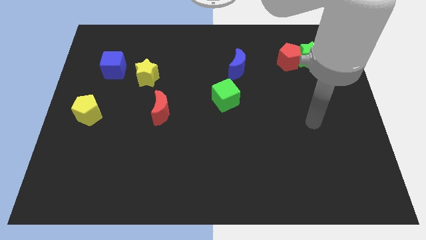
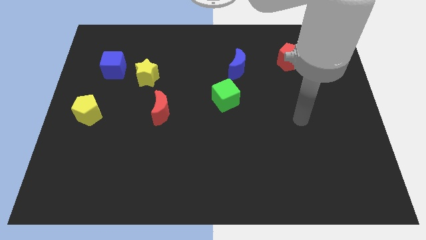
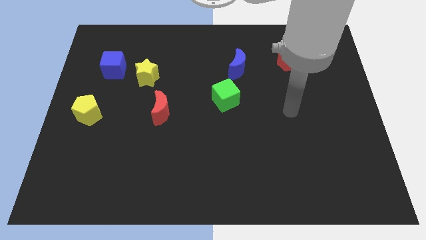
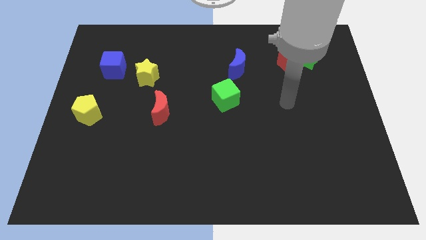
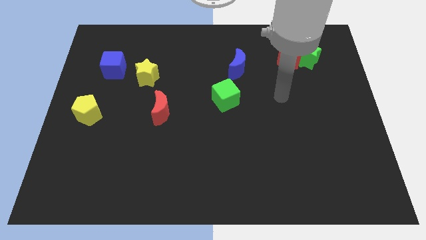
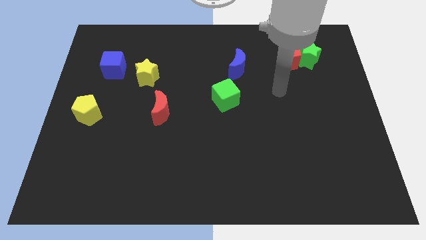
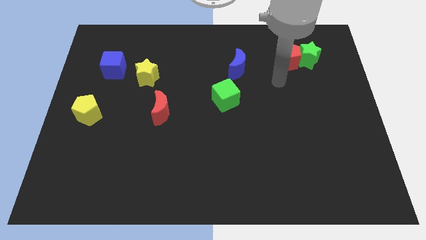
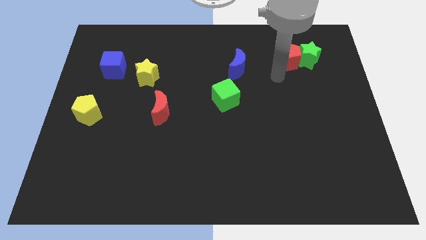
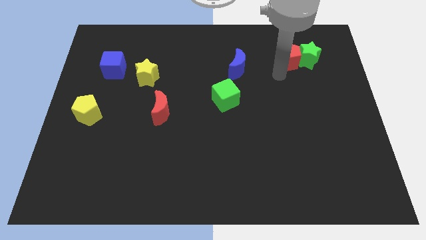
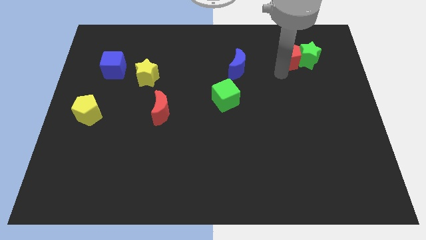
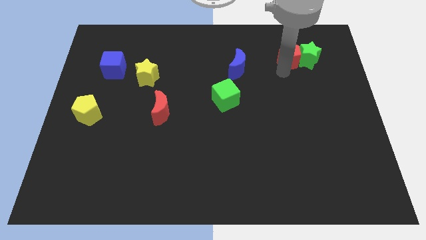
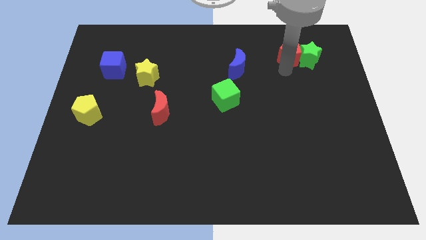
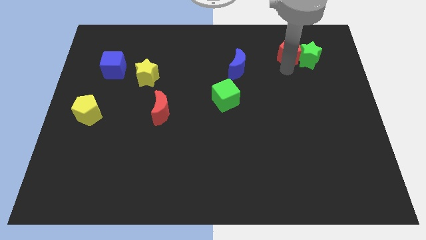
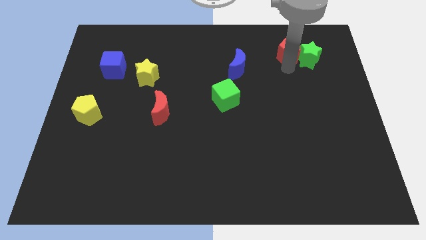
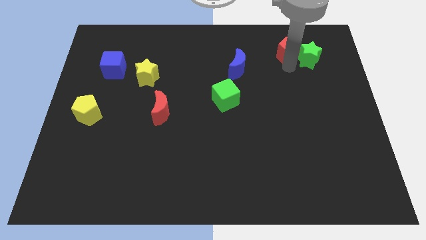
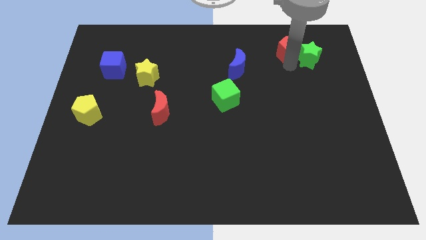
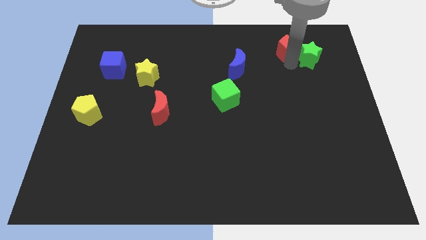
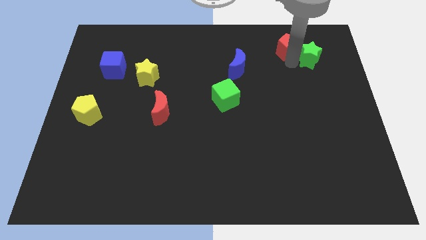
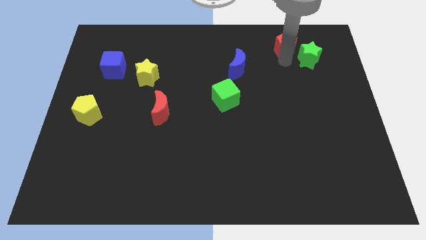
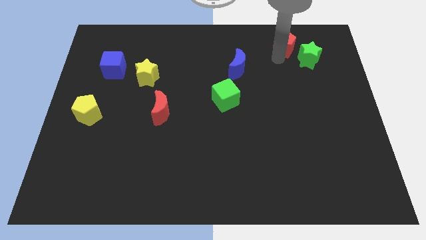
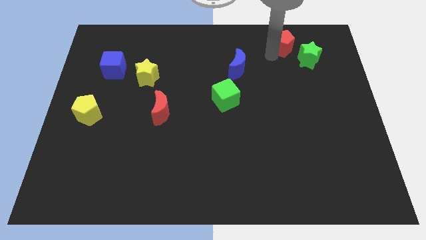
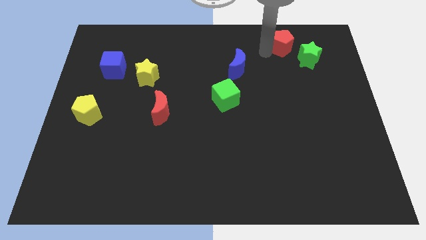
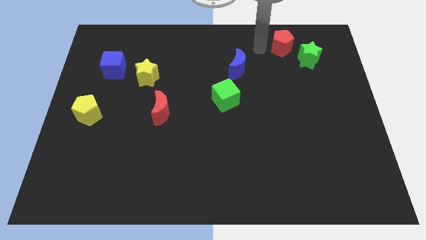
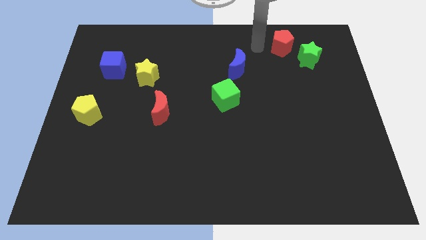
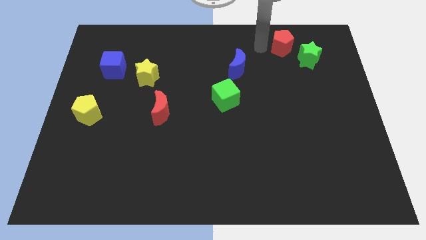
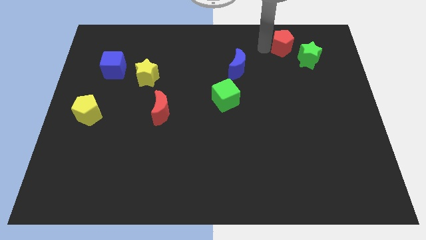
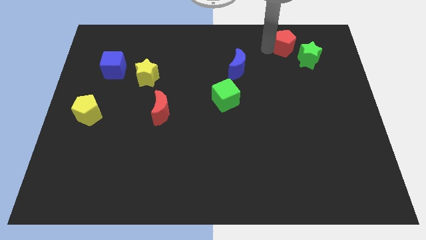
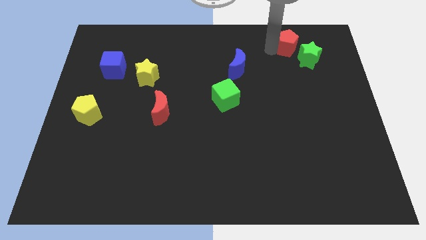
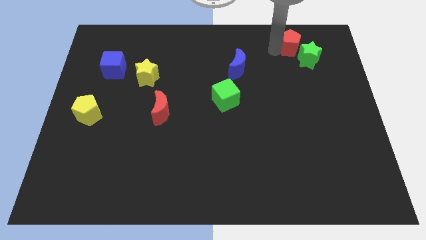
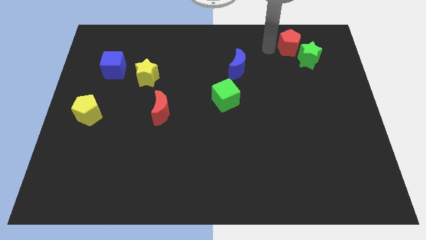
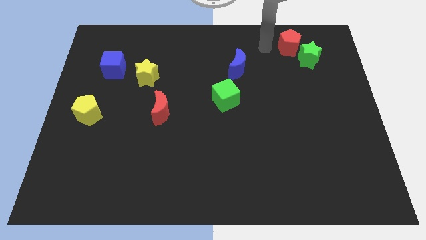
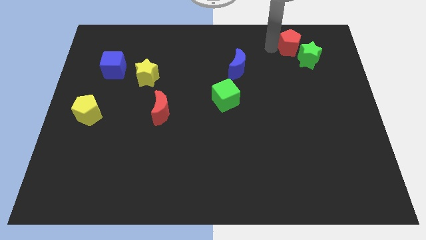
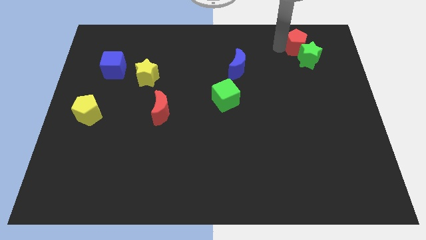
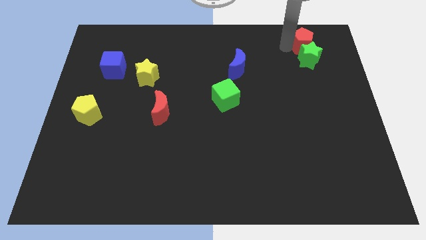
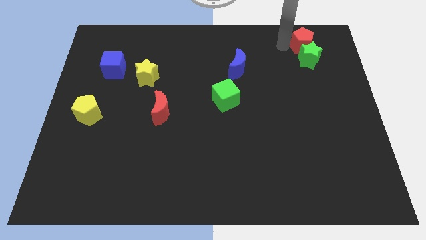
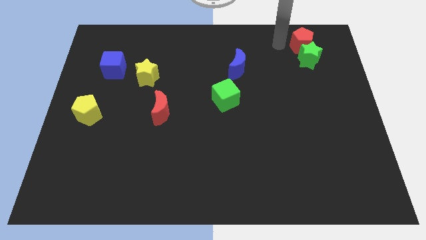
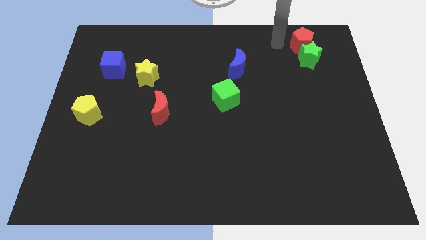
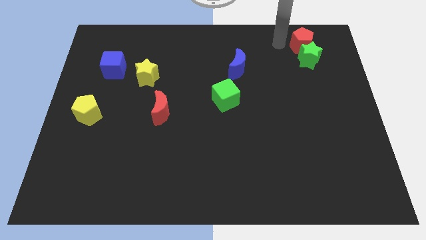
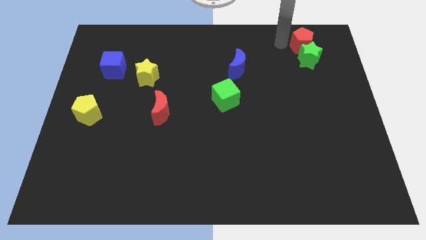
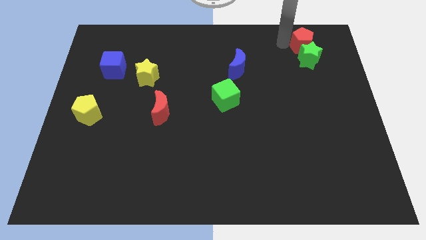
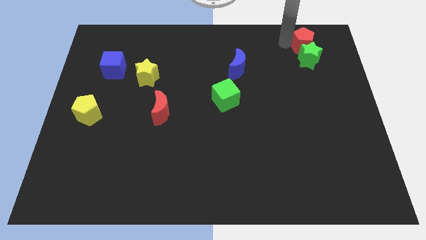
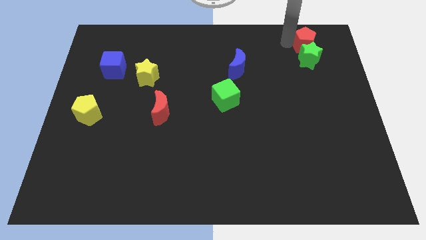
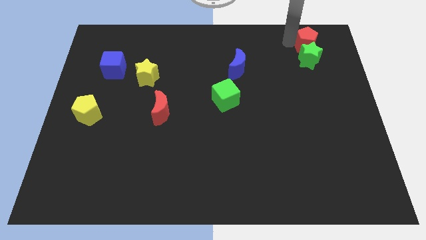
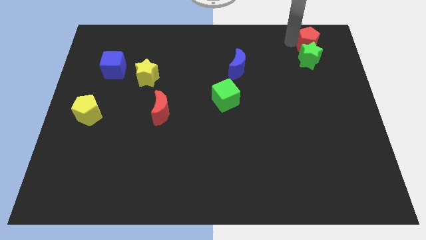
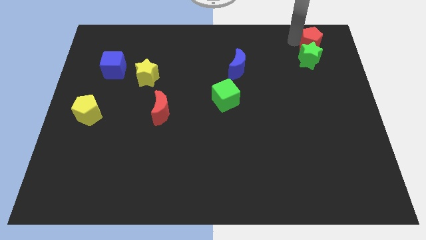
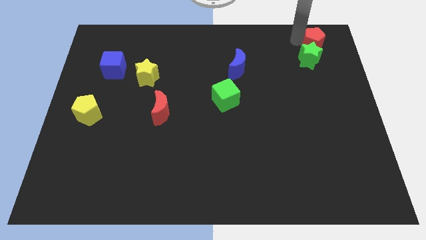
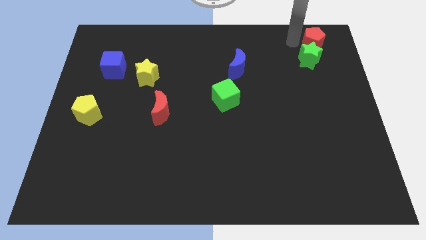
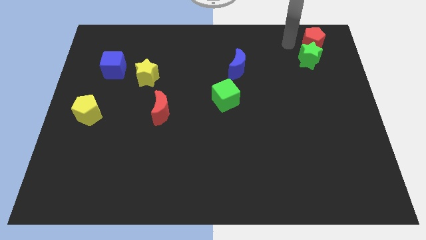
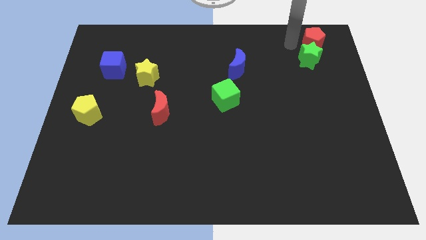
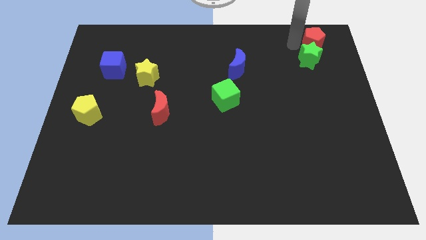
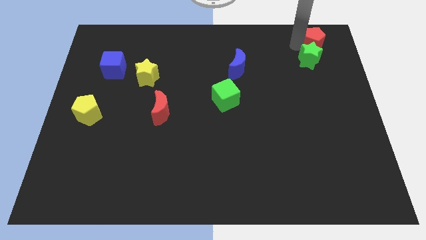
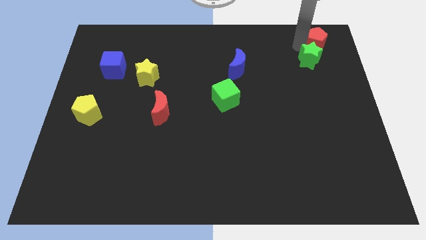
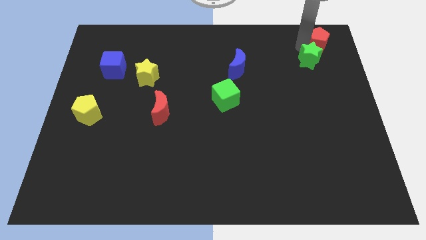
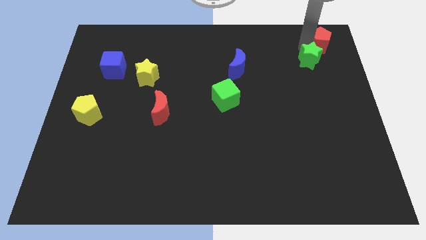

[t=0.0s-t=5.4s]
push the red pentagon to the top right of the board
